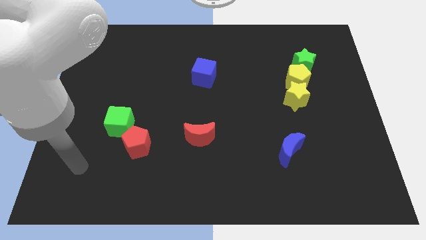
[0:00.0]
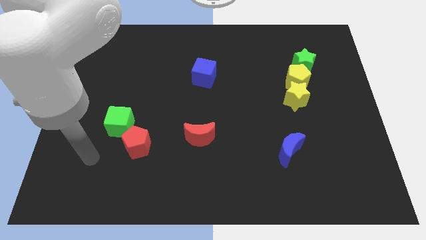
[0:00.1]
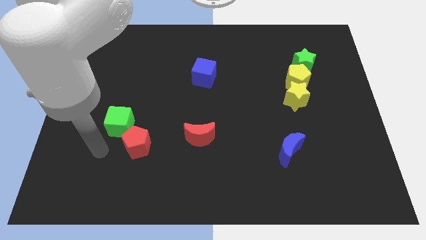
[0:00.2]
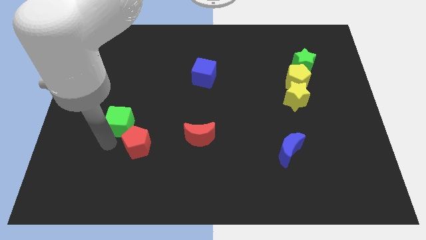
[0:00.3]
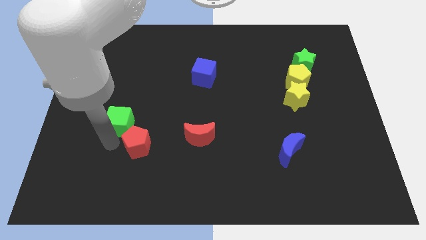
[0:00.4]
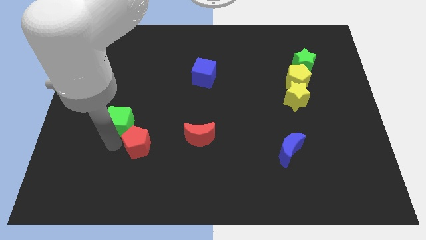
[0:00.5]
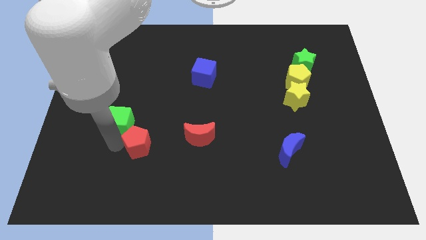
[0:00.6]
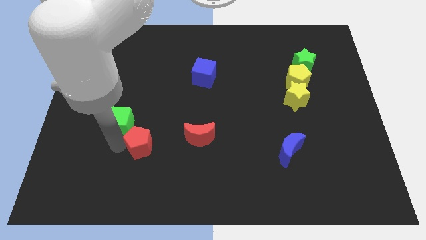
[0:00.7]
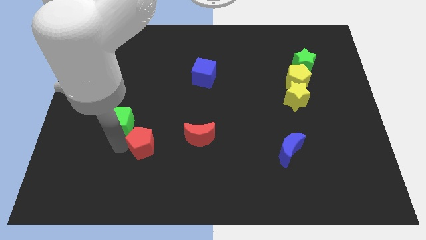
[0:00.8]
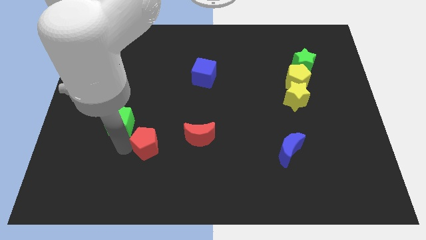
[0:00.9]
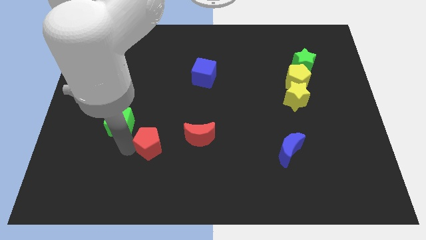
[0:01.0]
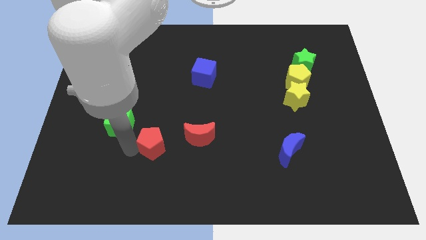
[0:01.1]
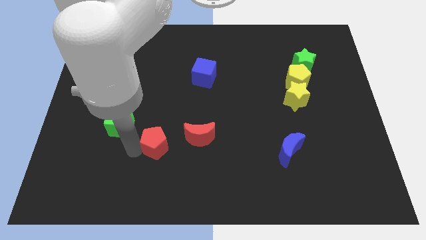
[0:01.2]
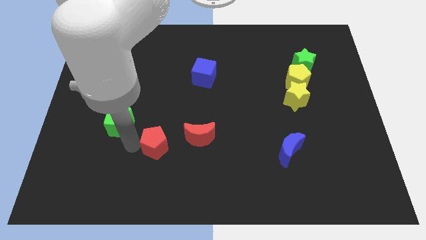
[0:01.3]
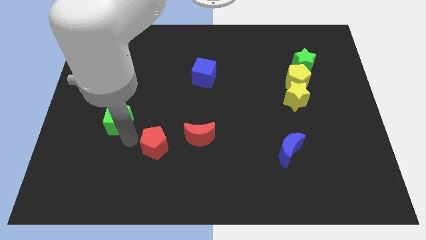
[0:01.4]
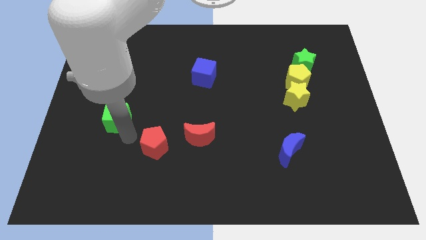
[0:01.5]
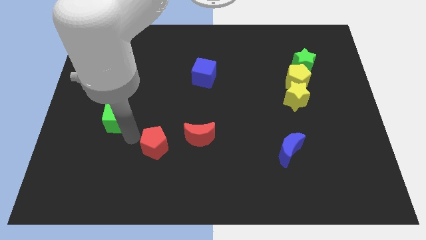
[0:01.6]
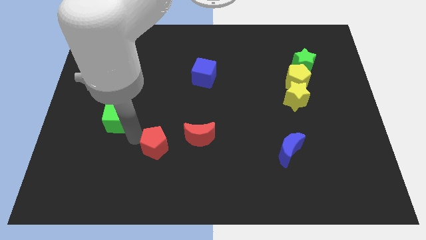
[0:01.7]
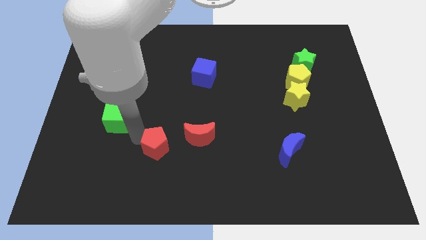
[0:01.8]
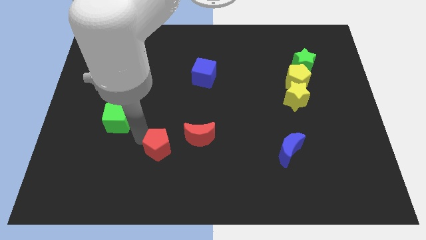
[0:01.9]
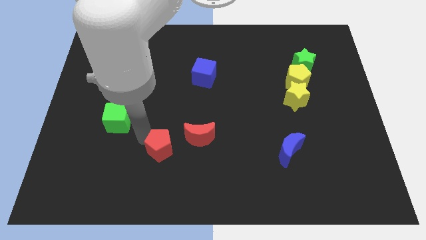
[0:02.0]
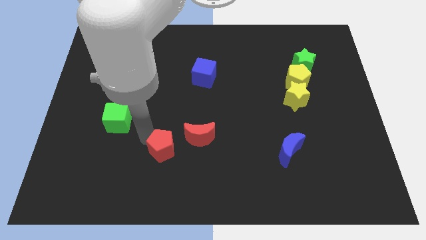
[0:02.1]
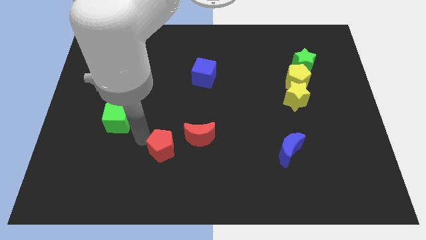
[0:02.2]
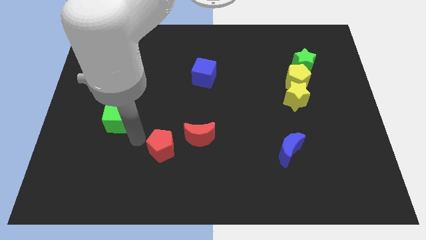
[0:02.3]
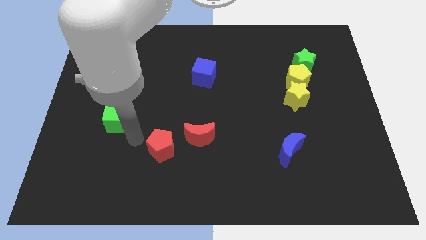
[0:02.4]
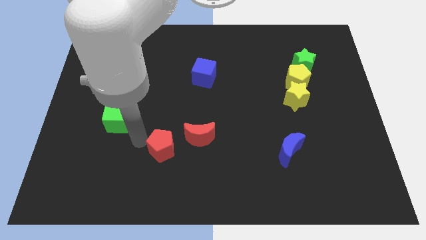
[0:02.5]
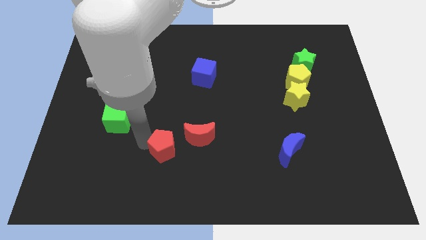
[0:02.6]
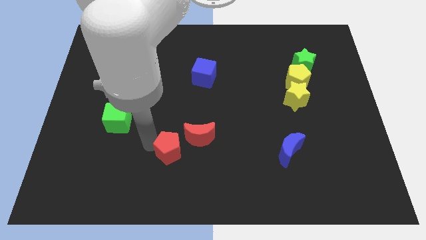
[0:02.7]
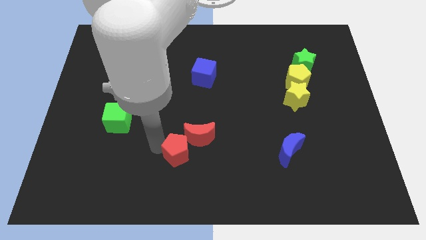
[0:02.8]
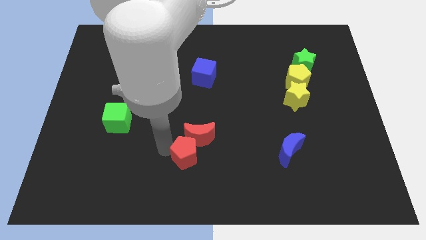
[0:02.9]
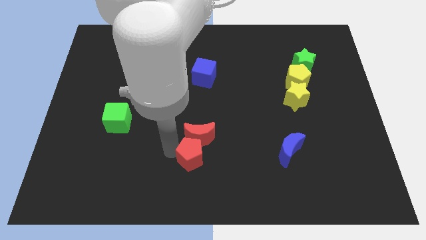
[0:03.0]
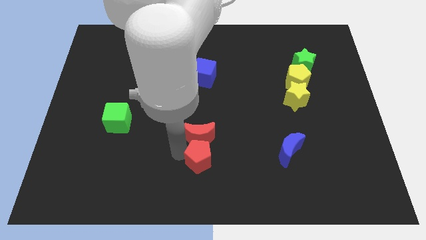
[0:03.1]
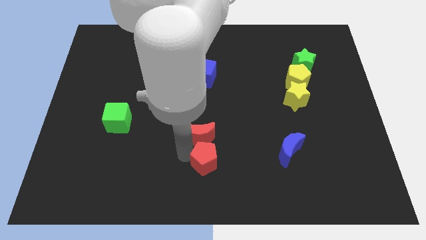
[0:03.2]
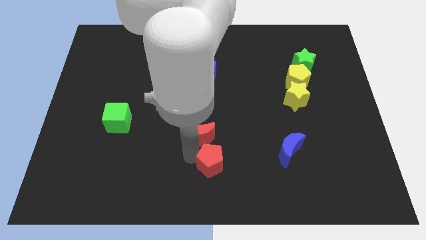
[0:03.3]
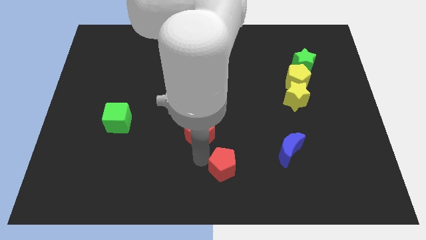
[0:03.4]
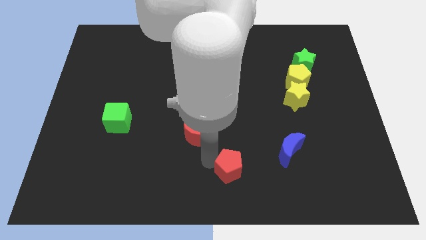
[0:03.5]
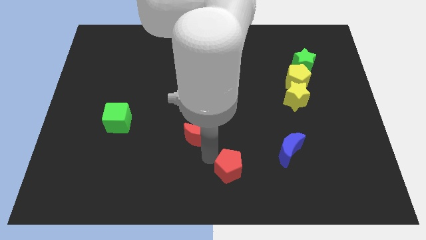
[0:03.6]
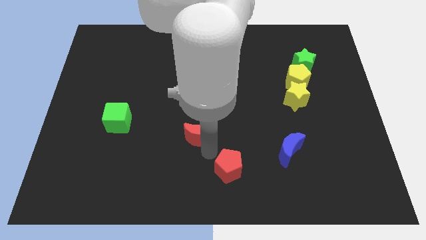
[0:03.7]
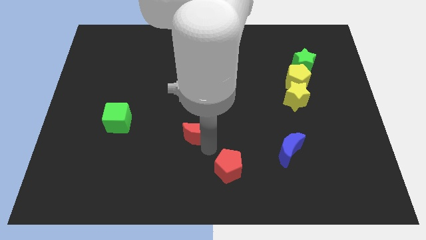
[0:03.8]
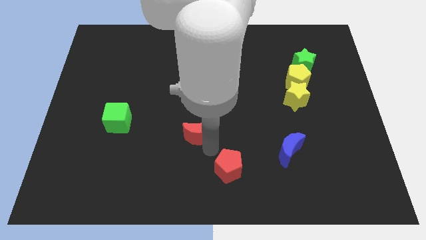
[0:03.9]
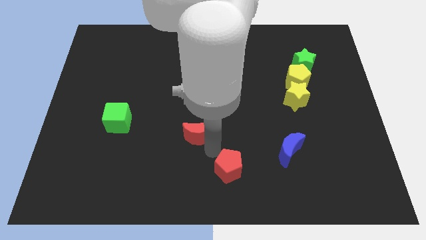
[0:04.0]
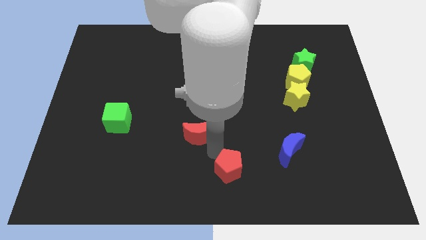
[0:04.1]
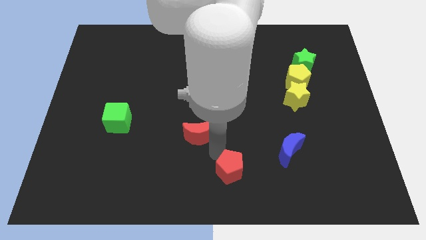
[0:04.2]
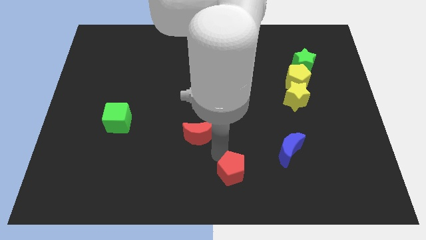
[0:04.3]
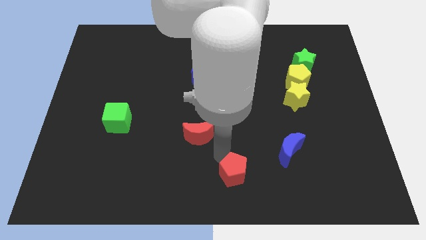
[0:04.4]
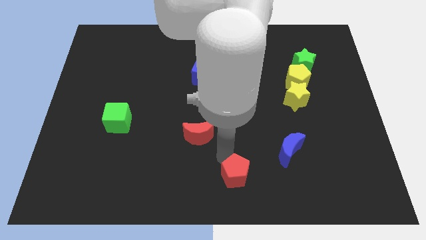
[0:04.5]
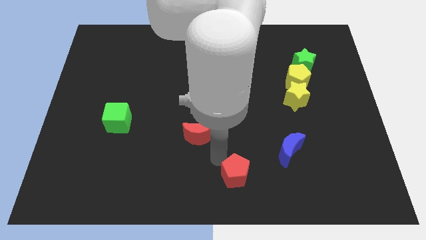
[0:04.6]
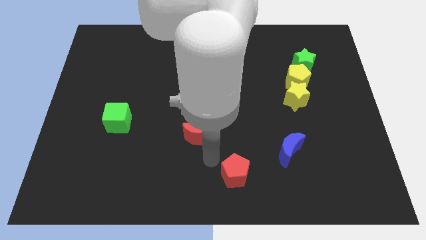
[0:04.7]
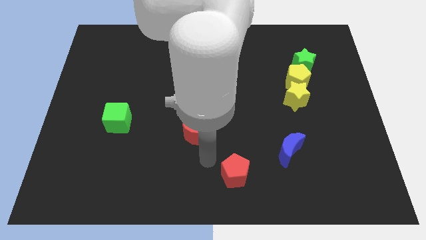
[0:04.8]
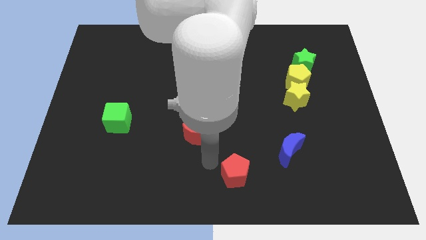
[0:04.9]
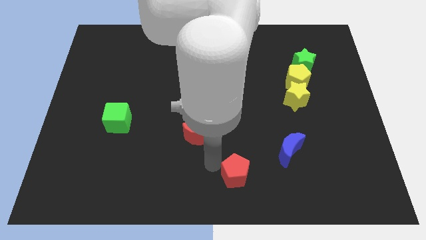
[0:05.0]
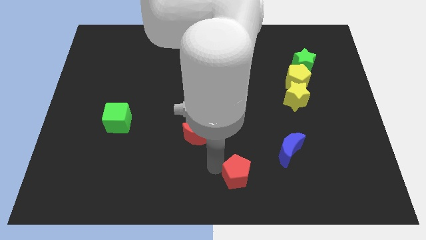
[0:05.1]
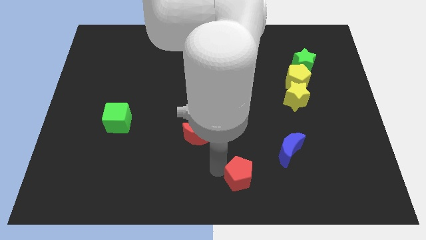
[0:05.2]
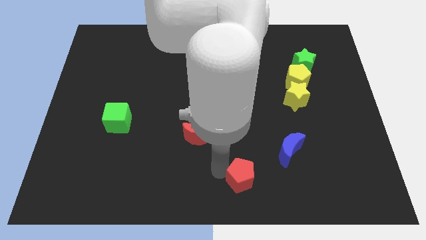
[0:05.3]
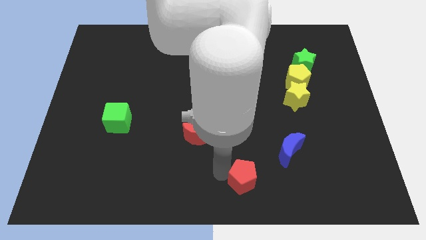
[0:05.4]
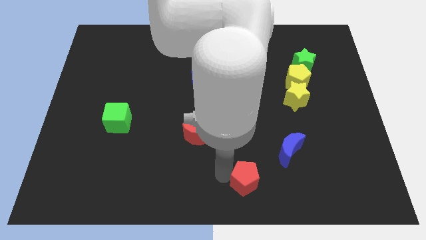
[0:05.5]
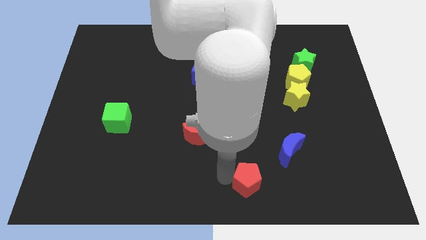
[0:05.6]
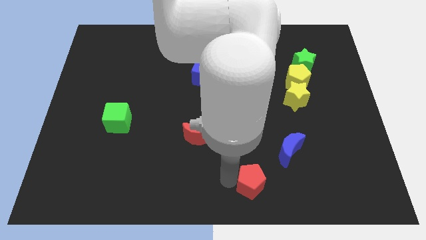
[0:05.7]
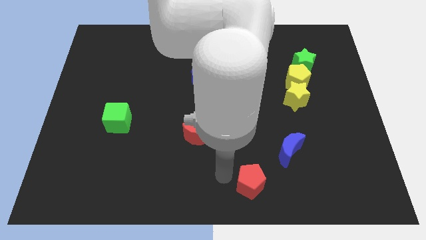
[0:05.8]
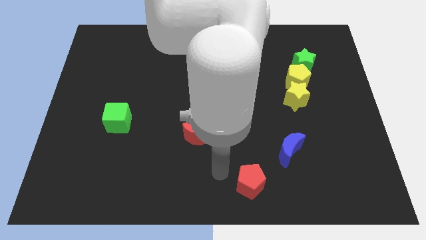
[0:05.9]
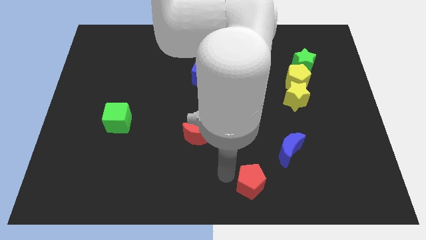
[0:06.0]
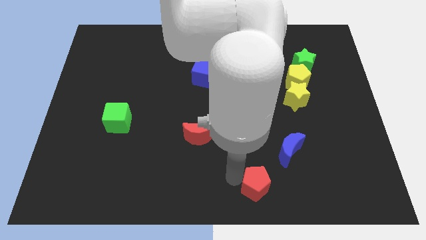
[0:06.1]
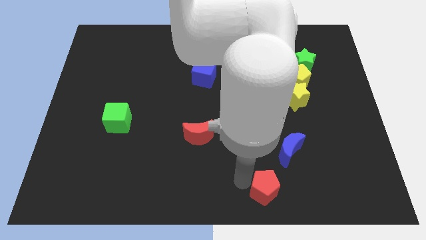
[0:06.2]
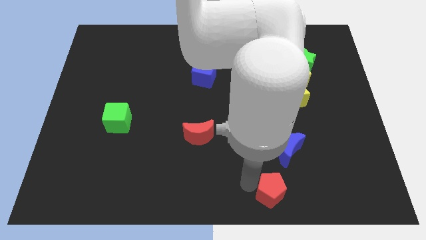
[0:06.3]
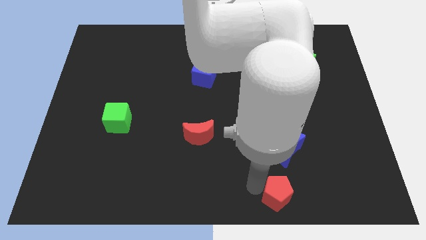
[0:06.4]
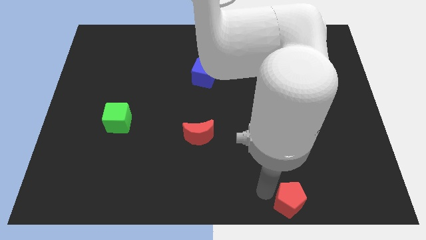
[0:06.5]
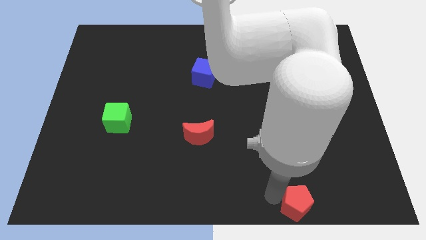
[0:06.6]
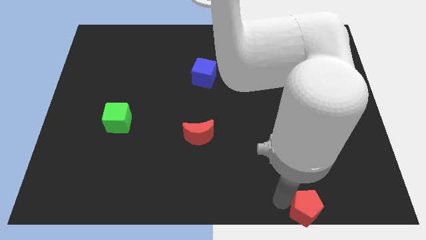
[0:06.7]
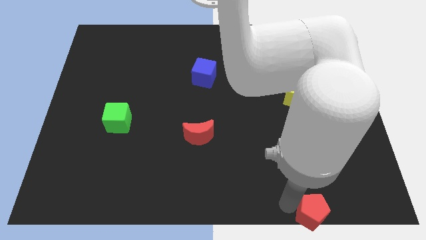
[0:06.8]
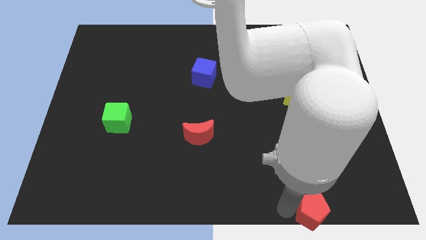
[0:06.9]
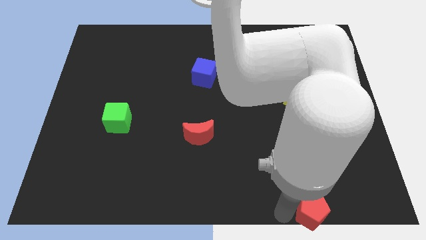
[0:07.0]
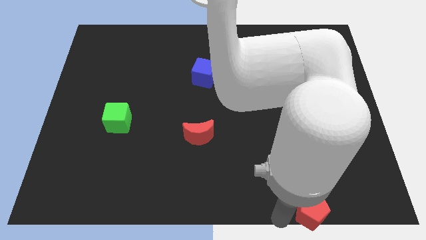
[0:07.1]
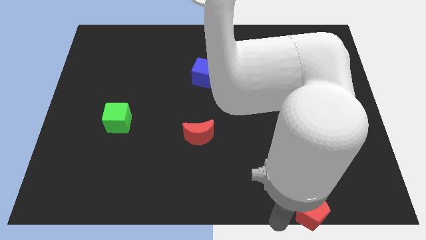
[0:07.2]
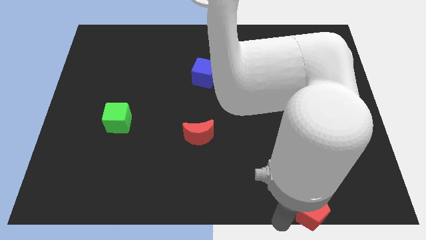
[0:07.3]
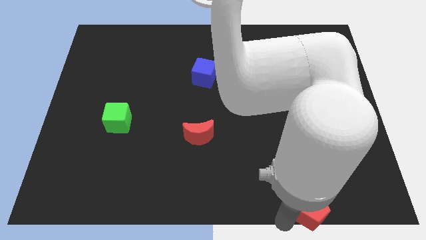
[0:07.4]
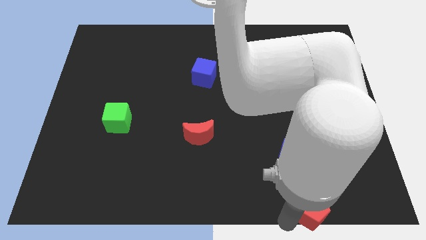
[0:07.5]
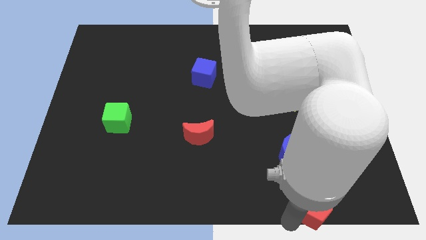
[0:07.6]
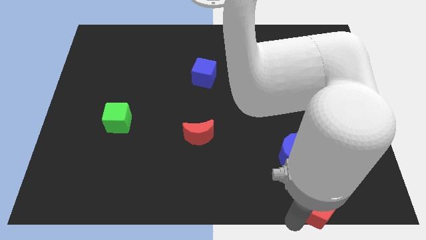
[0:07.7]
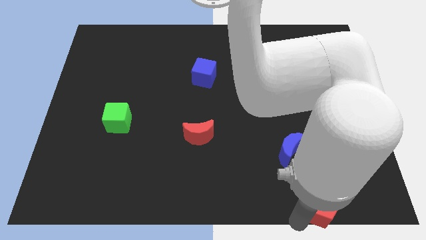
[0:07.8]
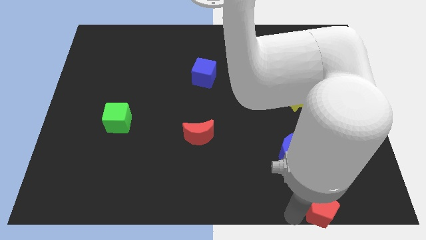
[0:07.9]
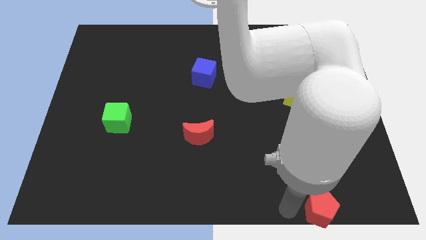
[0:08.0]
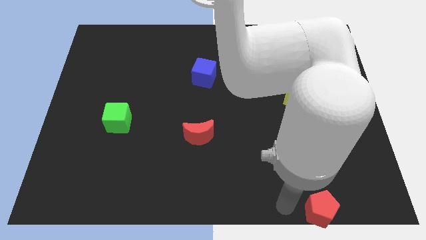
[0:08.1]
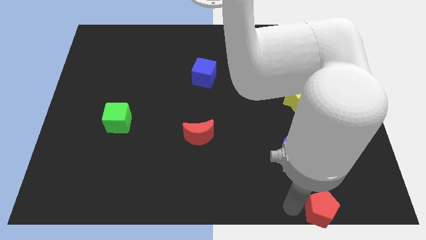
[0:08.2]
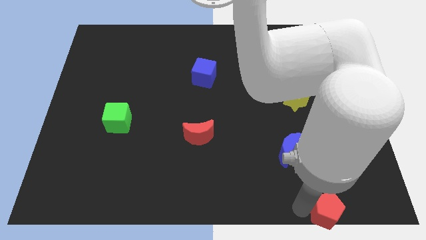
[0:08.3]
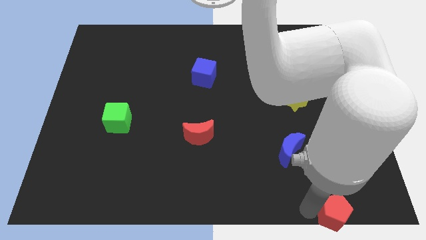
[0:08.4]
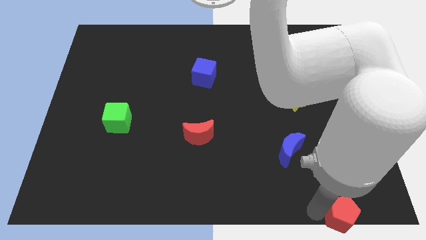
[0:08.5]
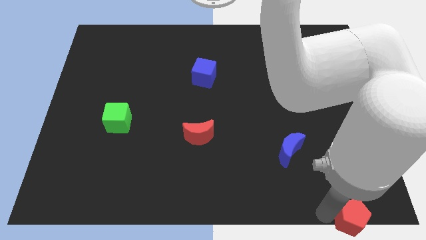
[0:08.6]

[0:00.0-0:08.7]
move the red pentagon to the bottom right

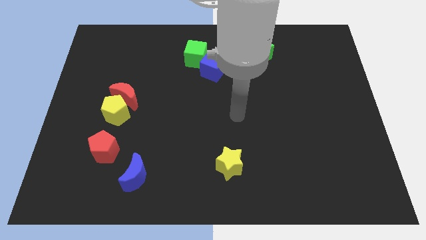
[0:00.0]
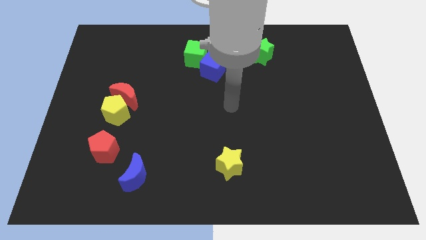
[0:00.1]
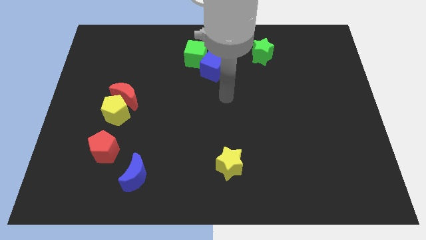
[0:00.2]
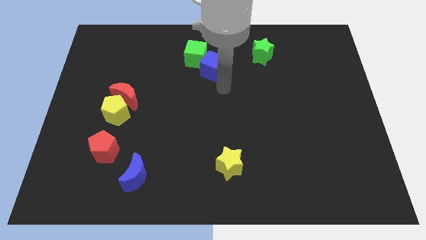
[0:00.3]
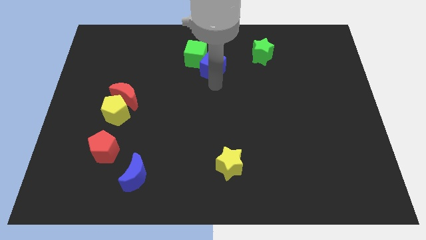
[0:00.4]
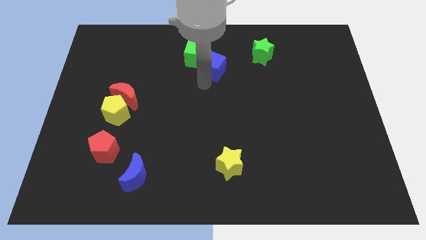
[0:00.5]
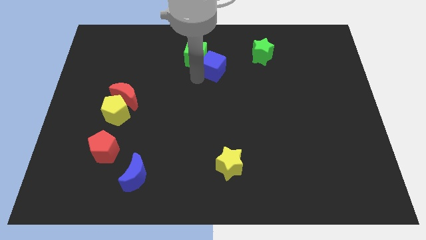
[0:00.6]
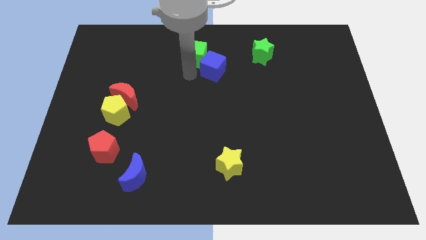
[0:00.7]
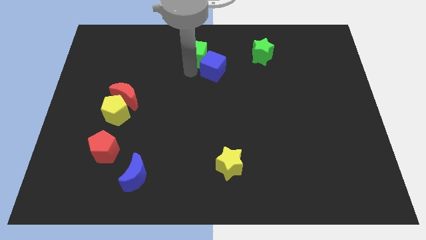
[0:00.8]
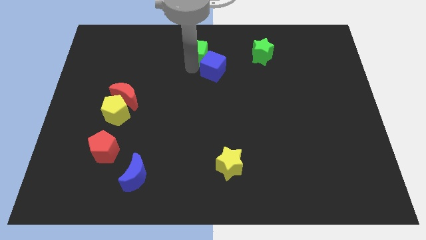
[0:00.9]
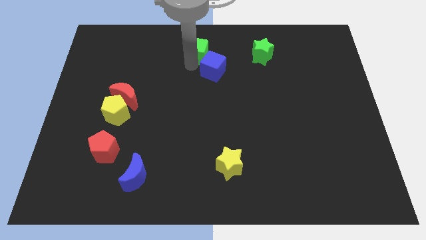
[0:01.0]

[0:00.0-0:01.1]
push the green cube to the top
